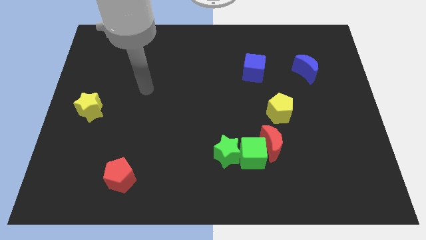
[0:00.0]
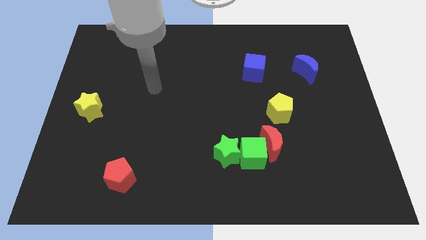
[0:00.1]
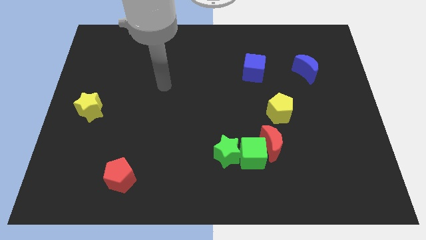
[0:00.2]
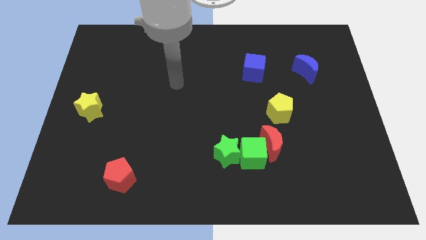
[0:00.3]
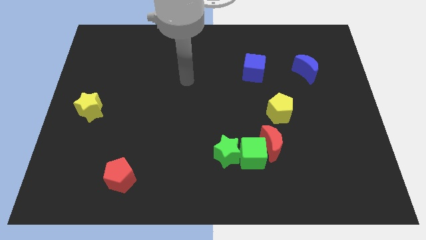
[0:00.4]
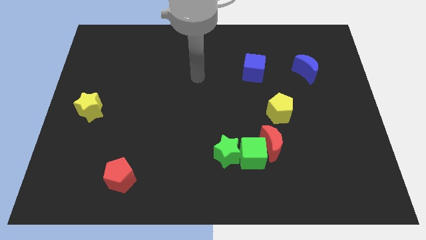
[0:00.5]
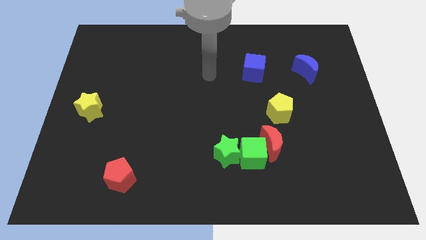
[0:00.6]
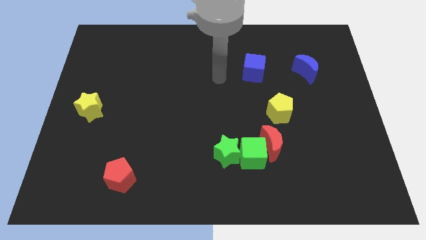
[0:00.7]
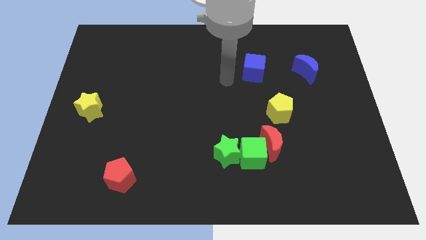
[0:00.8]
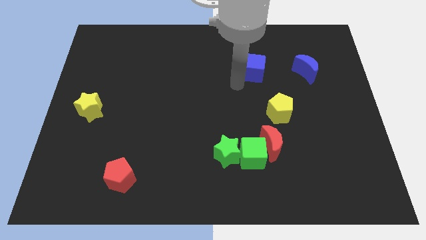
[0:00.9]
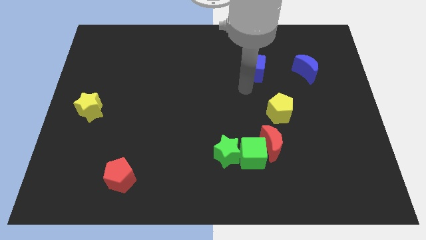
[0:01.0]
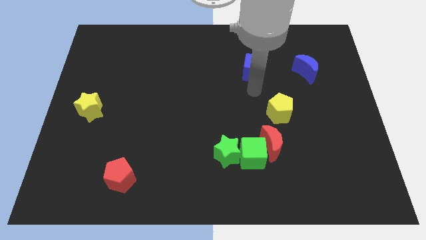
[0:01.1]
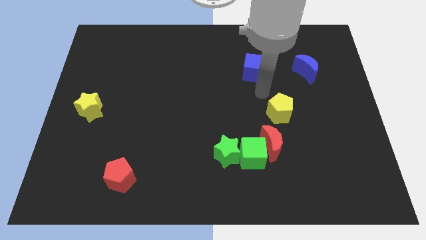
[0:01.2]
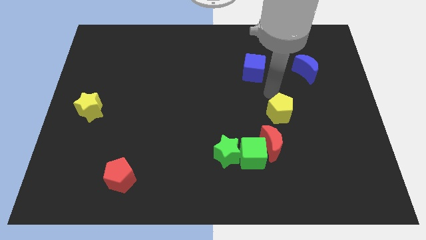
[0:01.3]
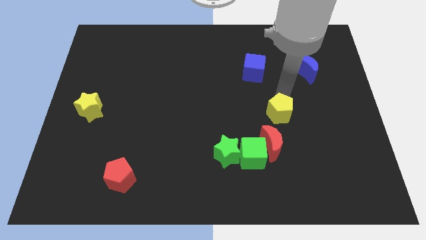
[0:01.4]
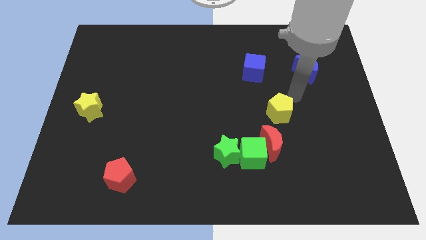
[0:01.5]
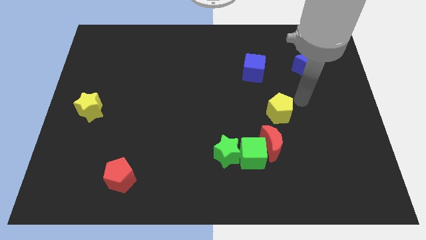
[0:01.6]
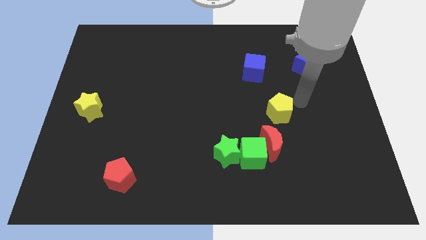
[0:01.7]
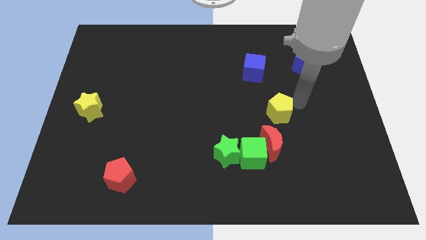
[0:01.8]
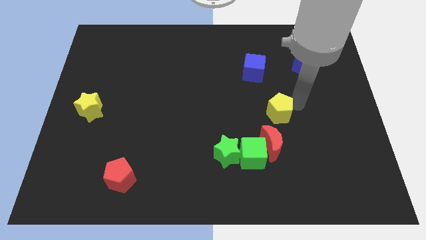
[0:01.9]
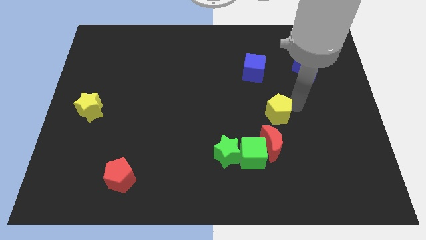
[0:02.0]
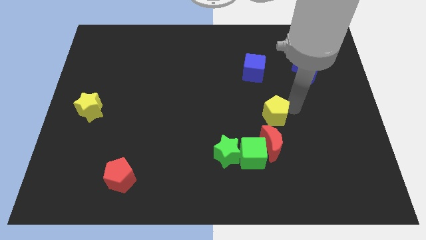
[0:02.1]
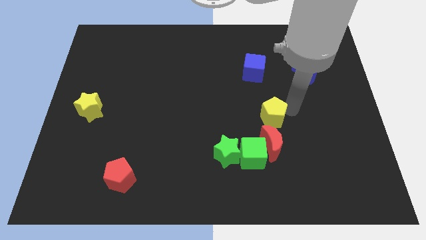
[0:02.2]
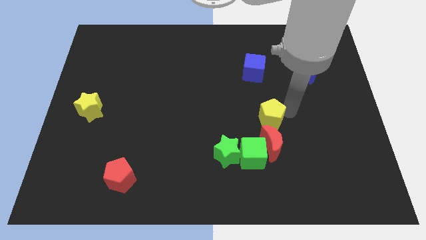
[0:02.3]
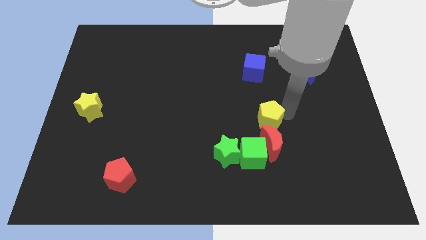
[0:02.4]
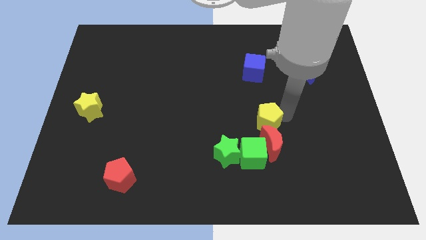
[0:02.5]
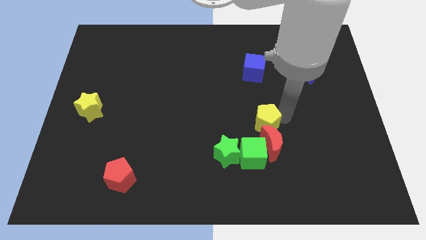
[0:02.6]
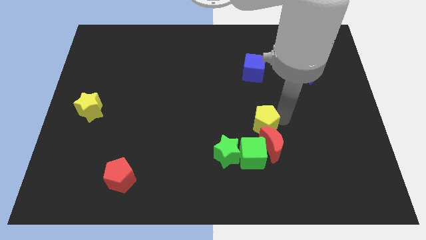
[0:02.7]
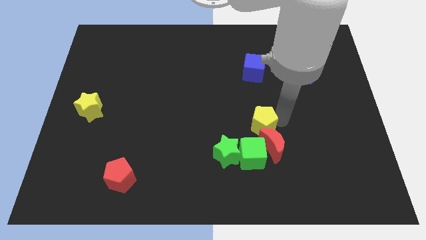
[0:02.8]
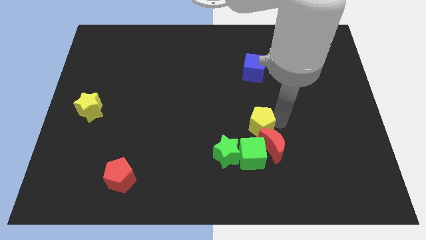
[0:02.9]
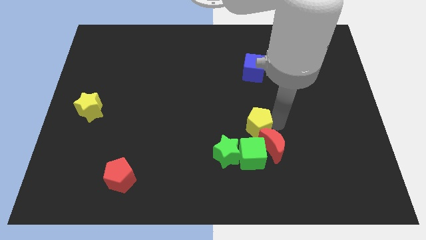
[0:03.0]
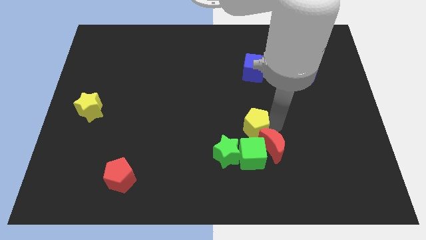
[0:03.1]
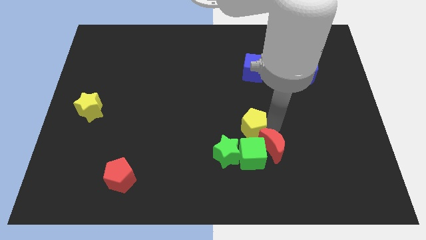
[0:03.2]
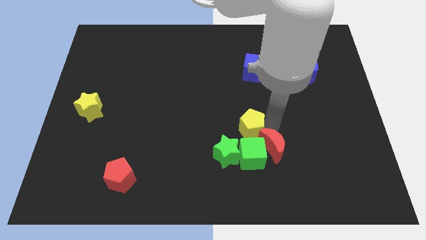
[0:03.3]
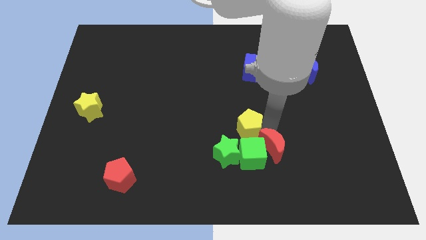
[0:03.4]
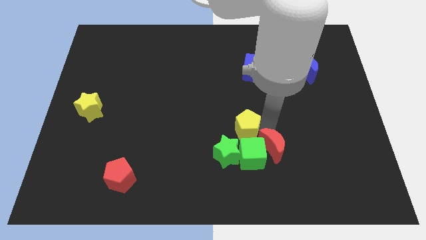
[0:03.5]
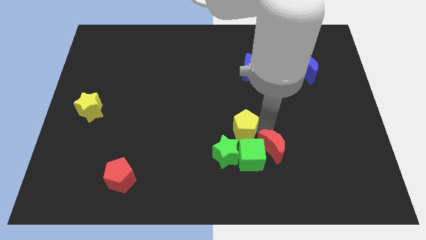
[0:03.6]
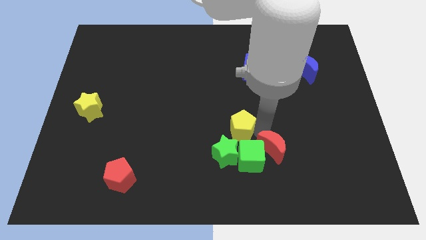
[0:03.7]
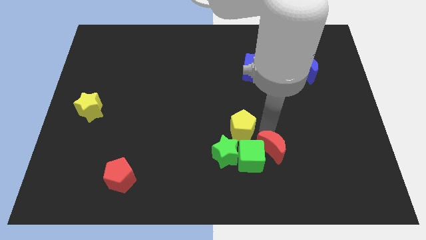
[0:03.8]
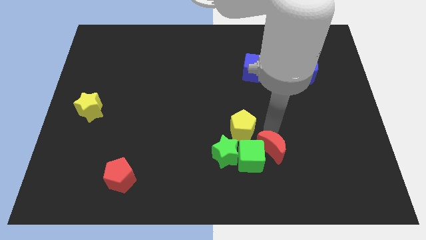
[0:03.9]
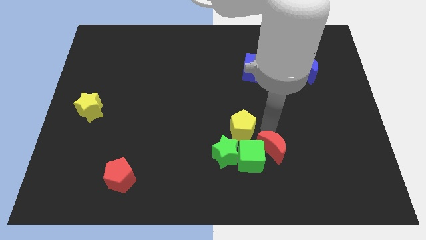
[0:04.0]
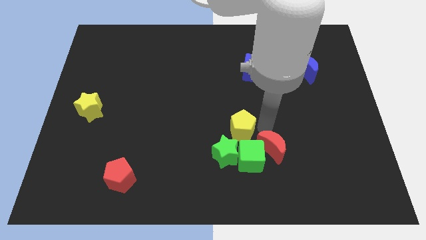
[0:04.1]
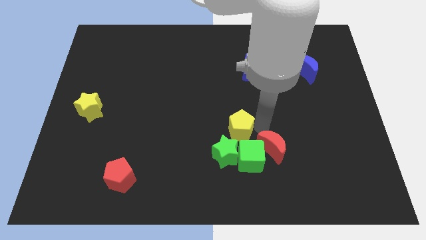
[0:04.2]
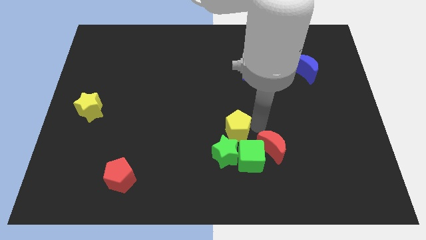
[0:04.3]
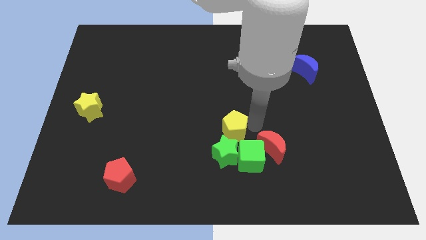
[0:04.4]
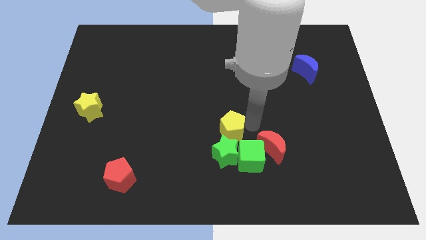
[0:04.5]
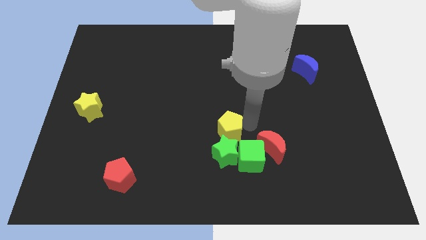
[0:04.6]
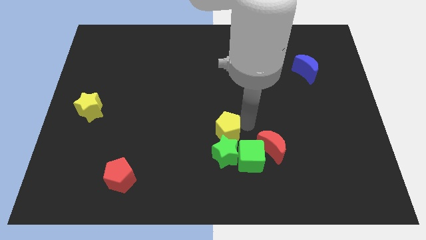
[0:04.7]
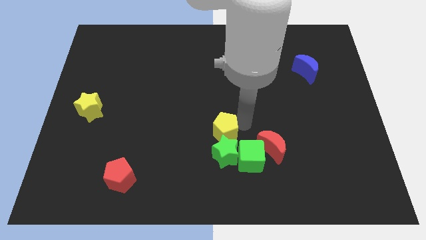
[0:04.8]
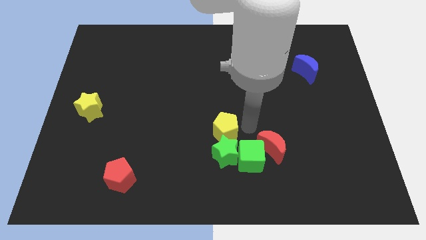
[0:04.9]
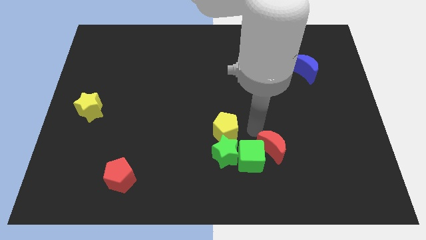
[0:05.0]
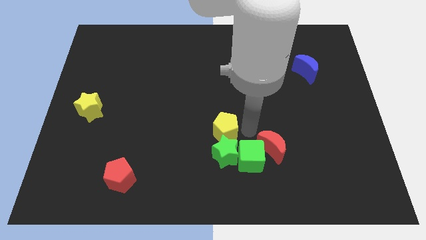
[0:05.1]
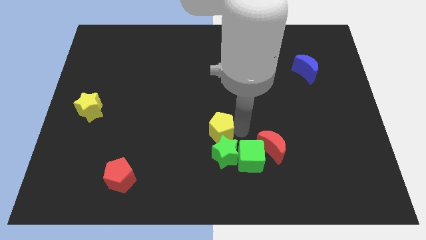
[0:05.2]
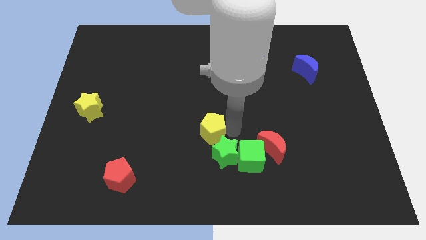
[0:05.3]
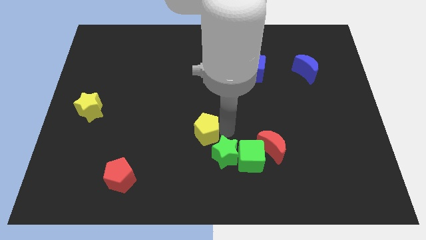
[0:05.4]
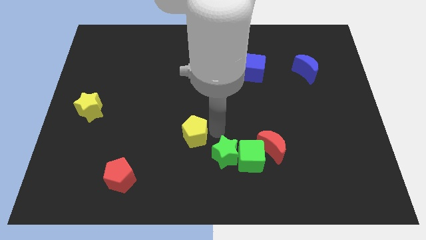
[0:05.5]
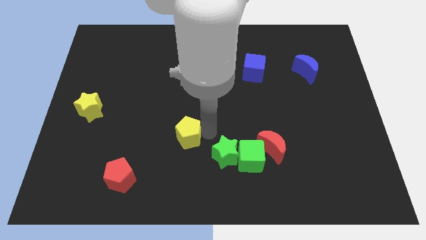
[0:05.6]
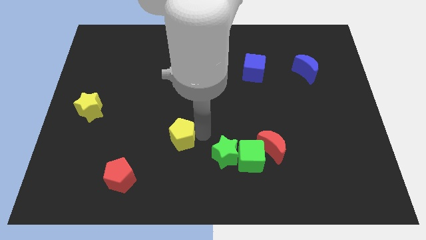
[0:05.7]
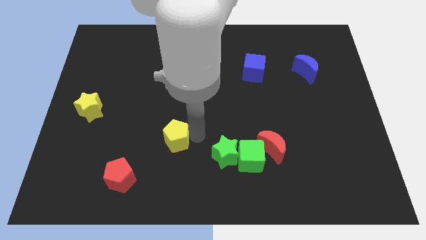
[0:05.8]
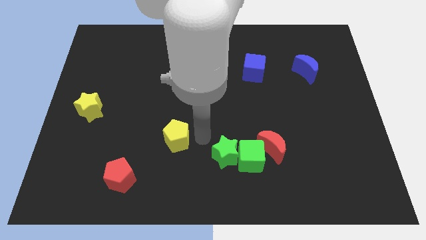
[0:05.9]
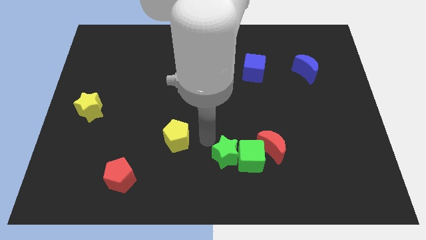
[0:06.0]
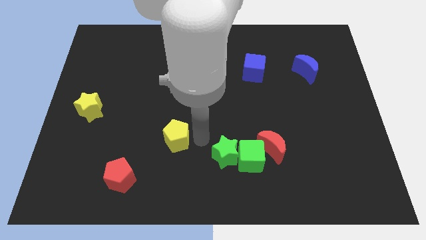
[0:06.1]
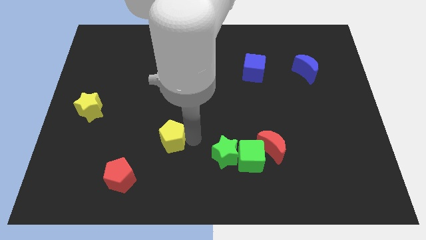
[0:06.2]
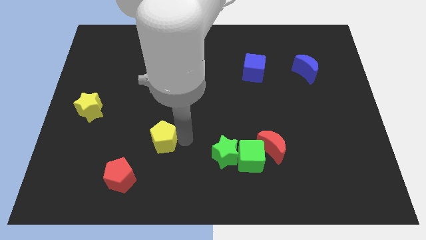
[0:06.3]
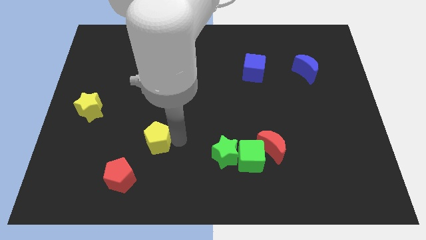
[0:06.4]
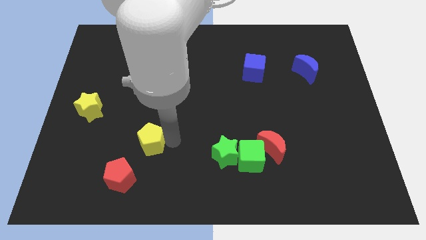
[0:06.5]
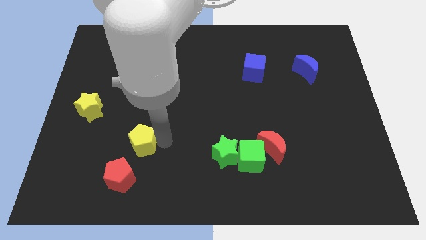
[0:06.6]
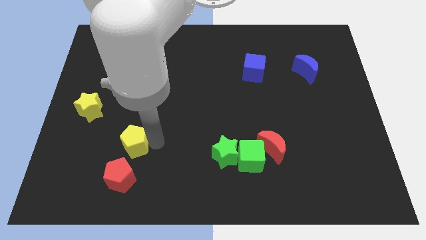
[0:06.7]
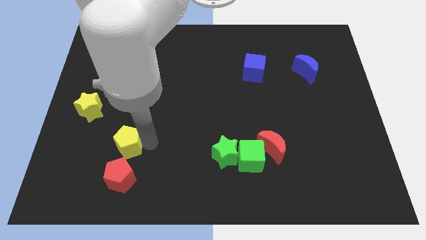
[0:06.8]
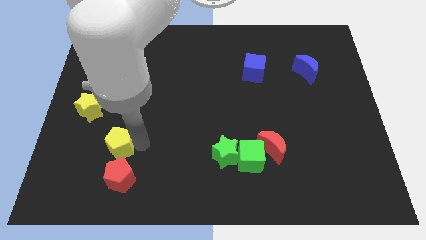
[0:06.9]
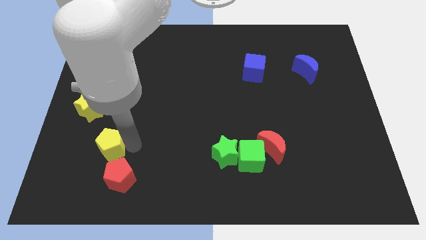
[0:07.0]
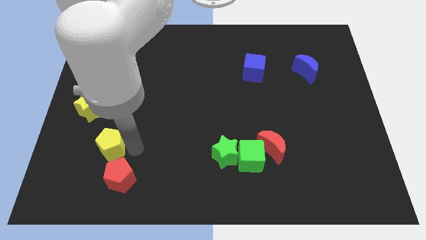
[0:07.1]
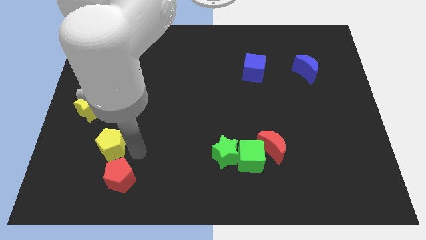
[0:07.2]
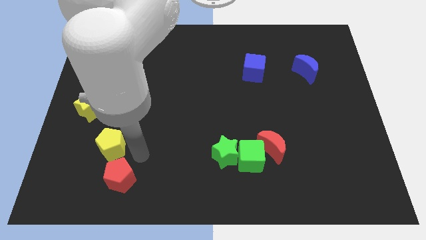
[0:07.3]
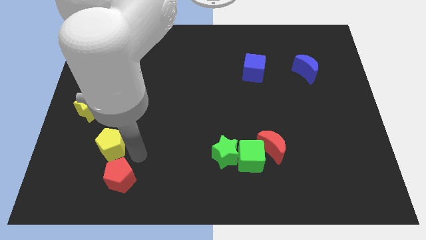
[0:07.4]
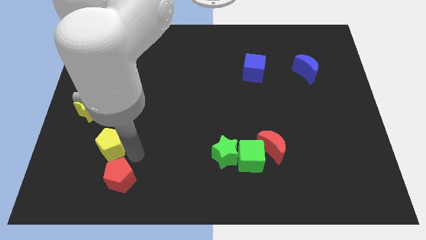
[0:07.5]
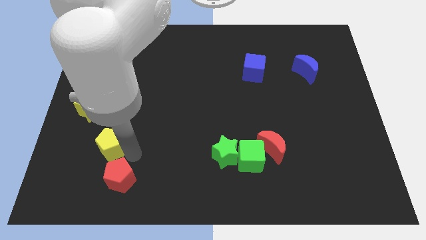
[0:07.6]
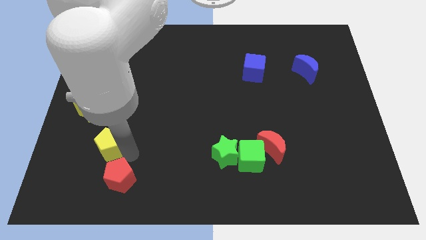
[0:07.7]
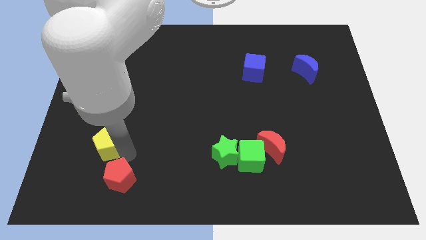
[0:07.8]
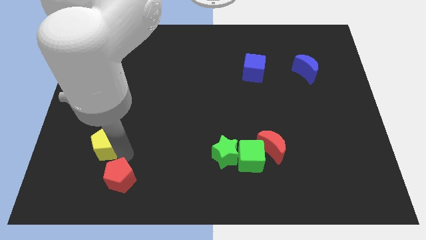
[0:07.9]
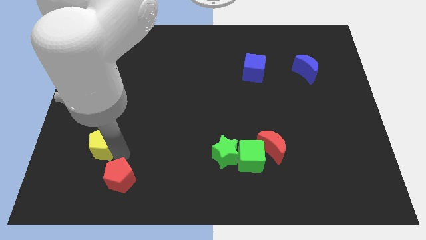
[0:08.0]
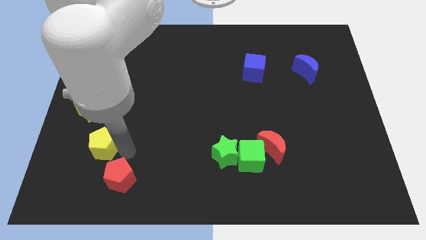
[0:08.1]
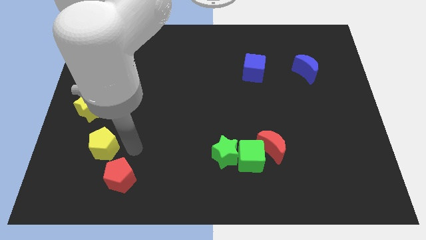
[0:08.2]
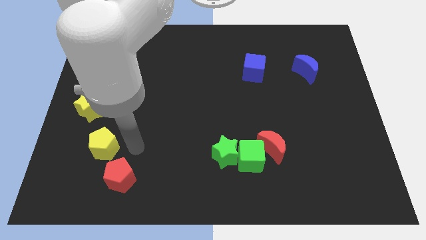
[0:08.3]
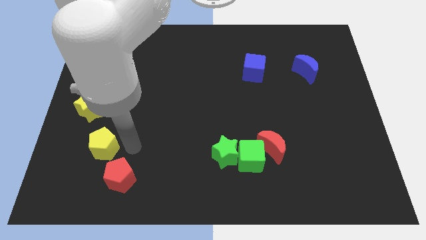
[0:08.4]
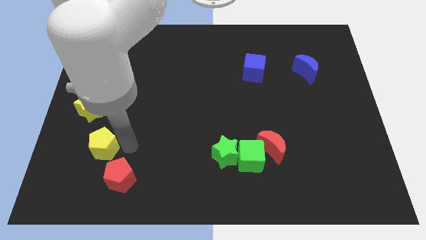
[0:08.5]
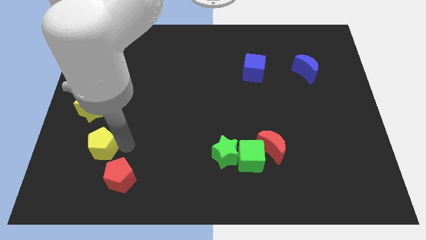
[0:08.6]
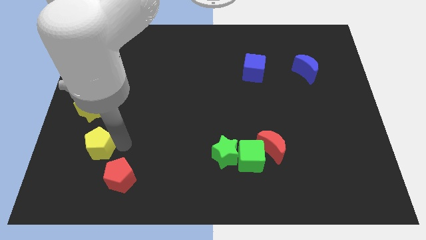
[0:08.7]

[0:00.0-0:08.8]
put the yellow pentagon to the bottom of the yellow star
